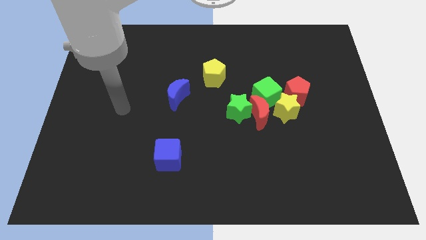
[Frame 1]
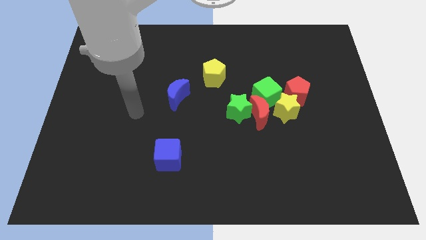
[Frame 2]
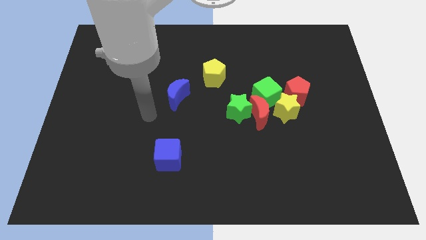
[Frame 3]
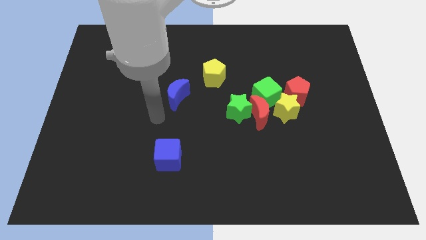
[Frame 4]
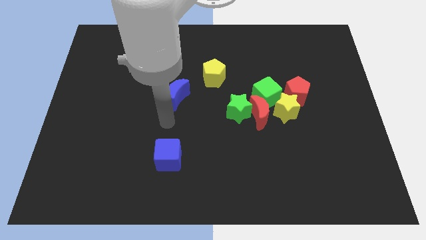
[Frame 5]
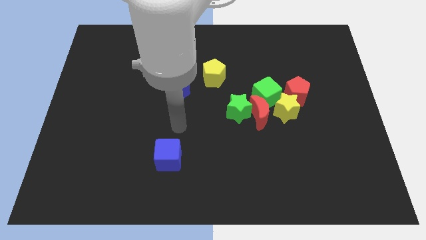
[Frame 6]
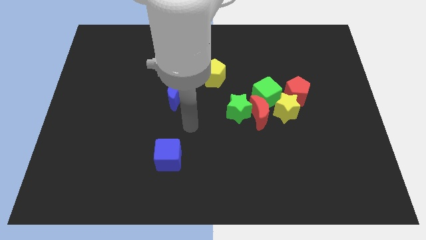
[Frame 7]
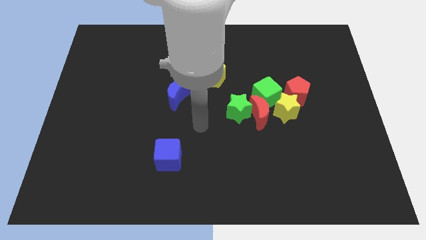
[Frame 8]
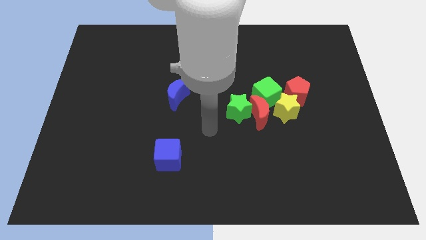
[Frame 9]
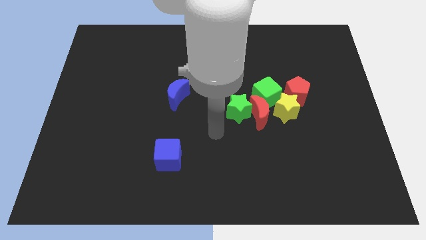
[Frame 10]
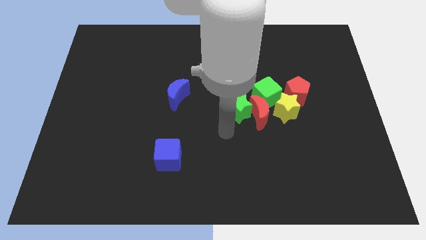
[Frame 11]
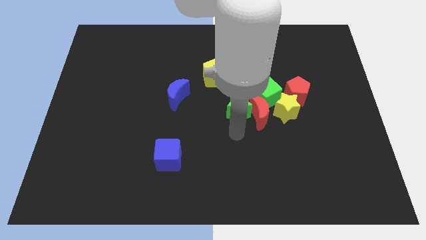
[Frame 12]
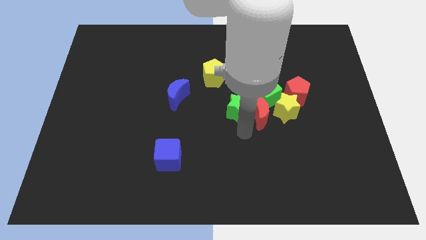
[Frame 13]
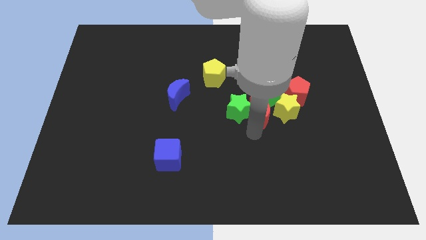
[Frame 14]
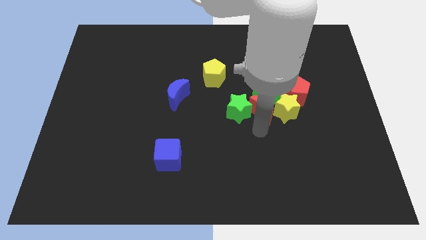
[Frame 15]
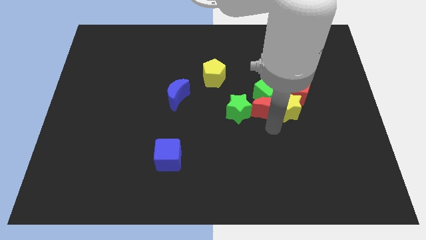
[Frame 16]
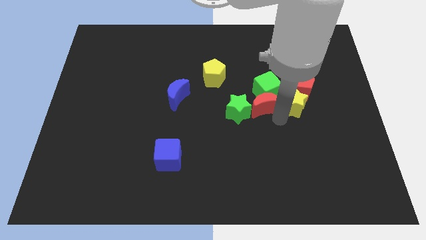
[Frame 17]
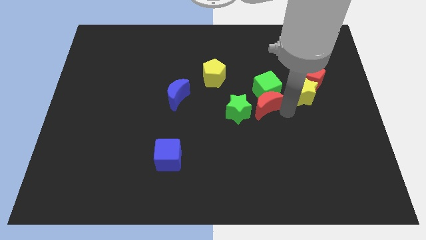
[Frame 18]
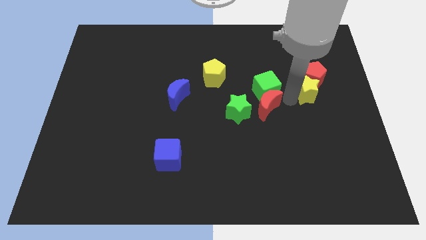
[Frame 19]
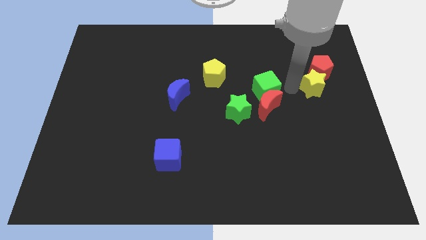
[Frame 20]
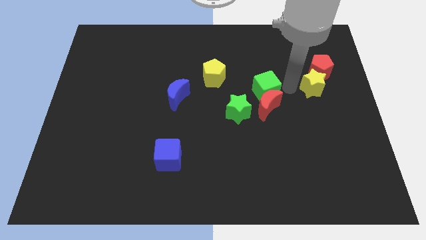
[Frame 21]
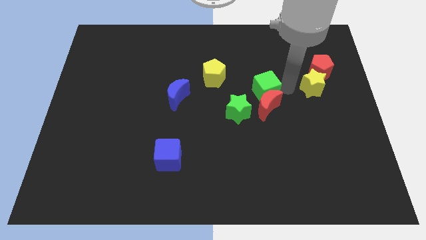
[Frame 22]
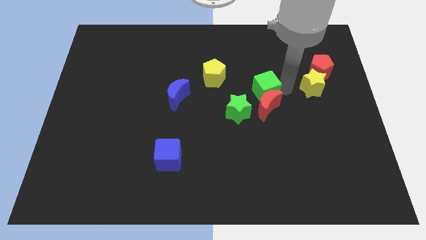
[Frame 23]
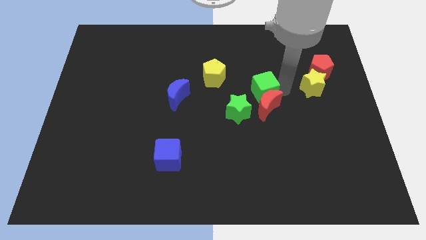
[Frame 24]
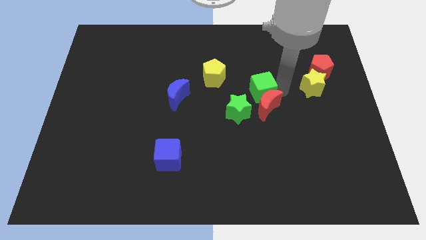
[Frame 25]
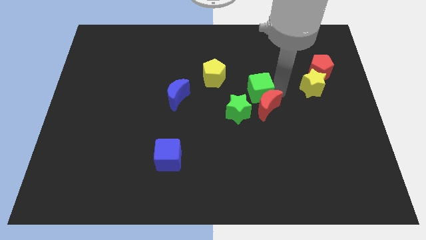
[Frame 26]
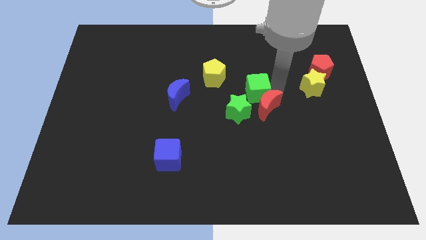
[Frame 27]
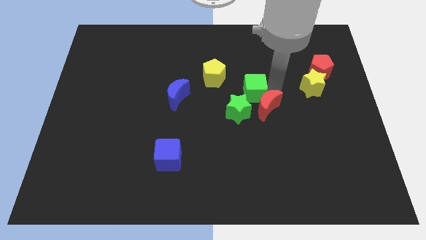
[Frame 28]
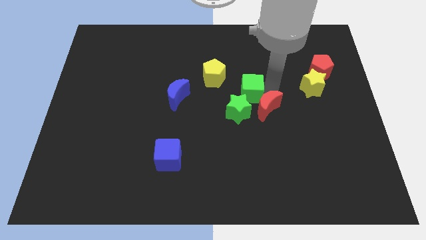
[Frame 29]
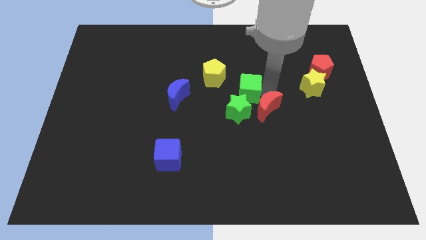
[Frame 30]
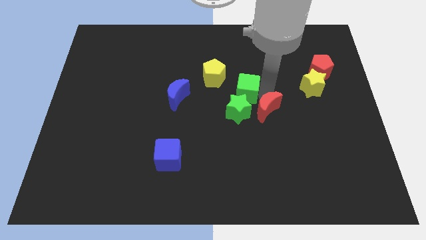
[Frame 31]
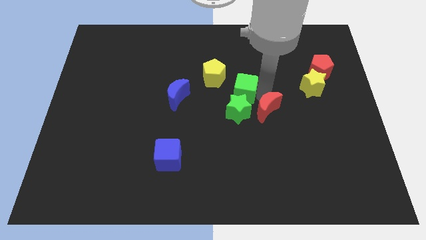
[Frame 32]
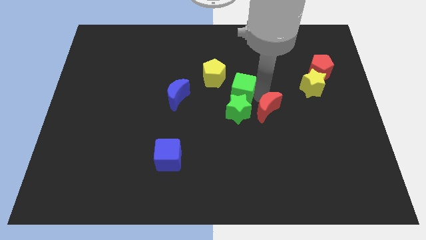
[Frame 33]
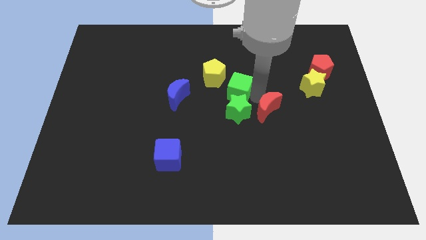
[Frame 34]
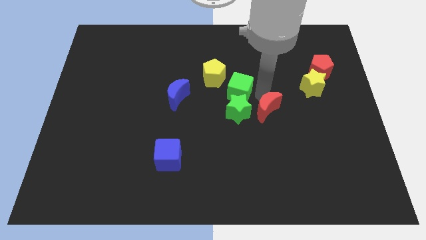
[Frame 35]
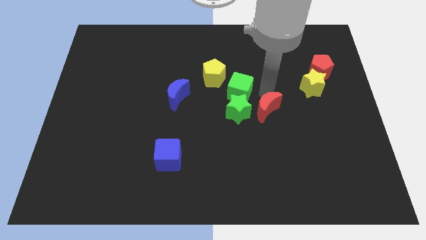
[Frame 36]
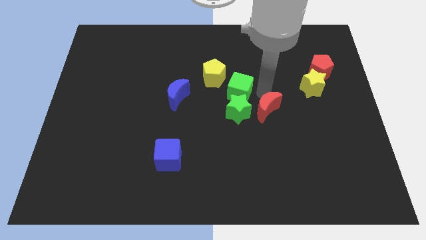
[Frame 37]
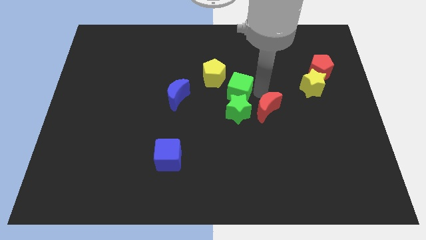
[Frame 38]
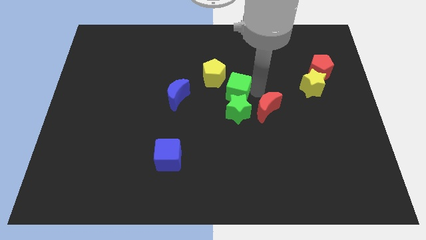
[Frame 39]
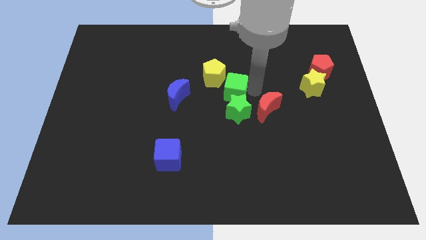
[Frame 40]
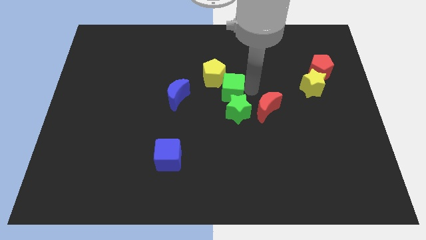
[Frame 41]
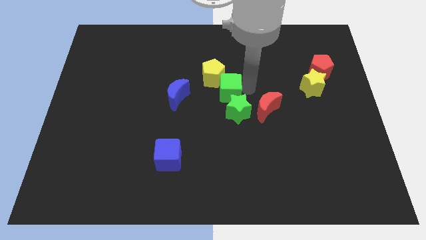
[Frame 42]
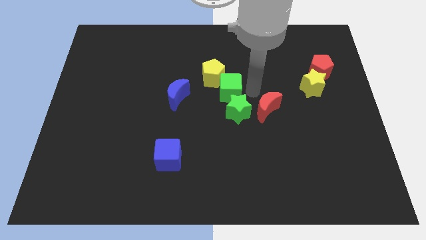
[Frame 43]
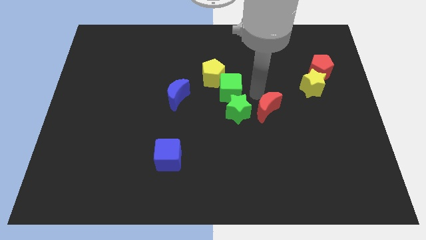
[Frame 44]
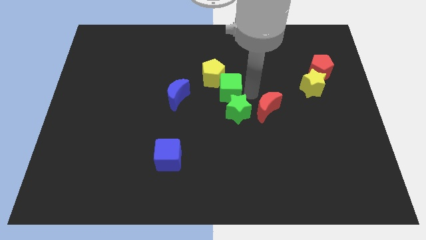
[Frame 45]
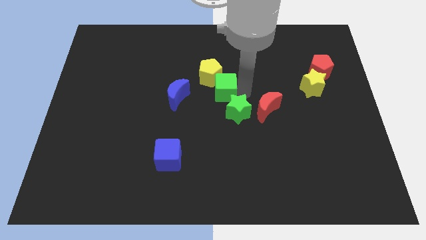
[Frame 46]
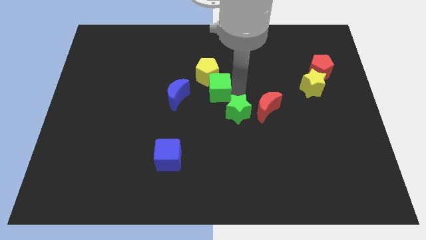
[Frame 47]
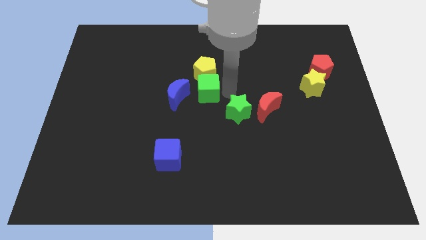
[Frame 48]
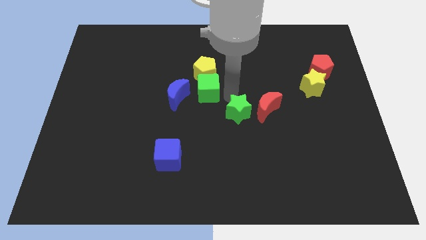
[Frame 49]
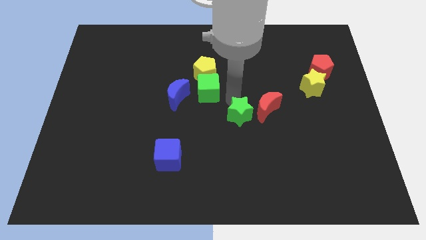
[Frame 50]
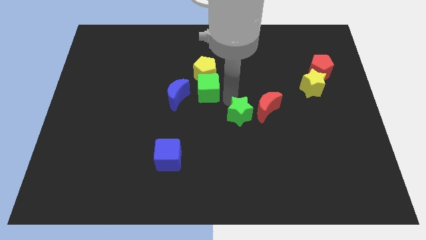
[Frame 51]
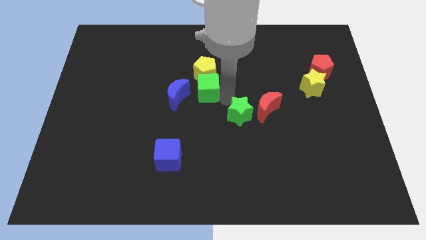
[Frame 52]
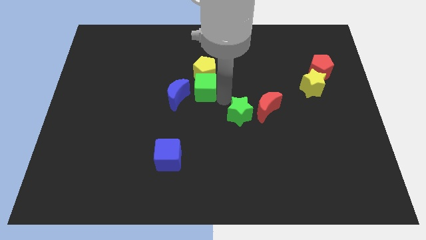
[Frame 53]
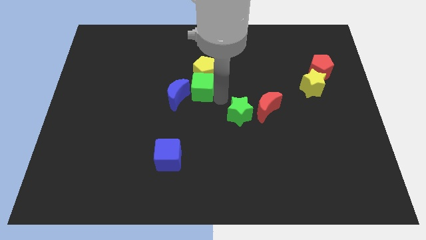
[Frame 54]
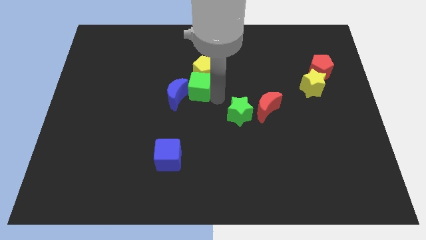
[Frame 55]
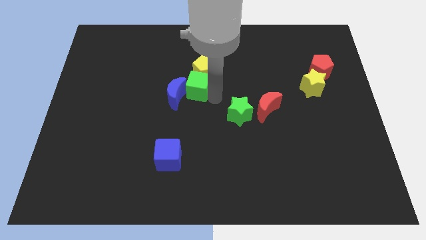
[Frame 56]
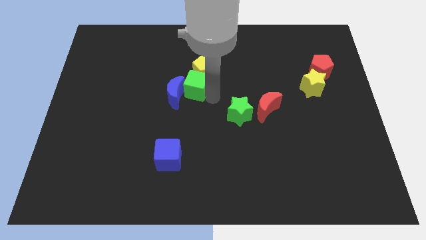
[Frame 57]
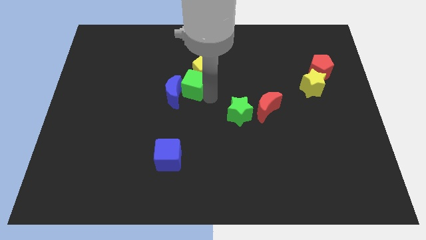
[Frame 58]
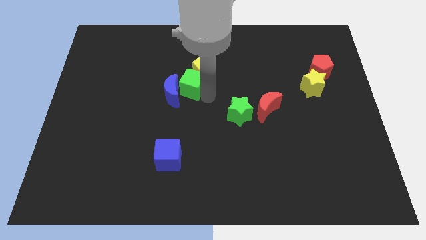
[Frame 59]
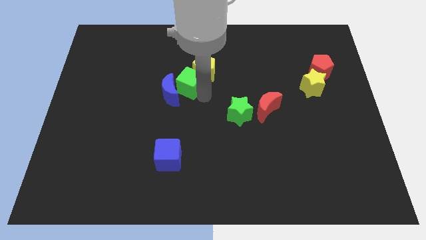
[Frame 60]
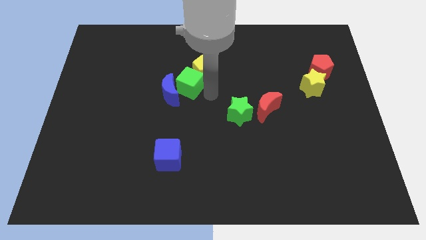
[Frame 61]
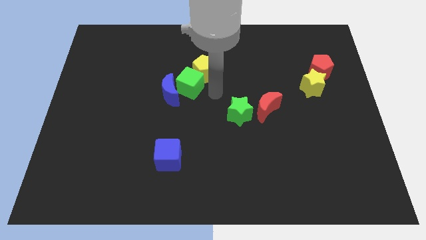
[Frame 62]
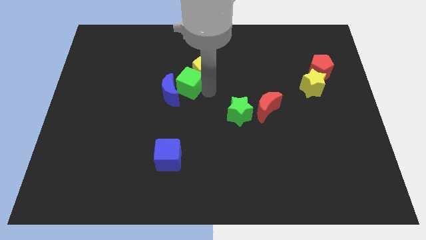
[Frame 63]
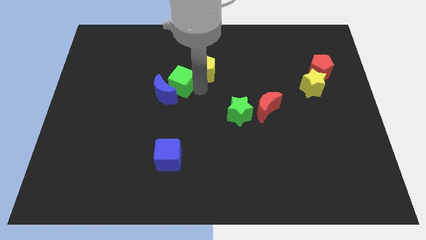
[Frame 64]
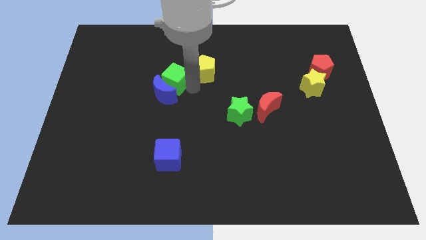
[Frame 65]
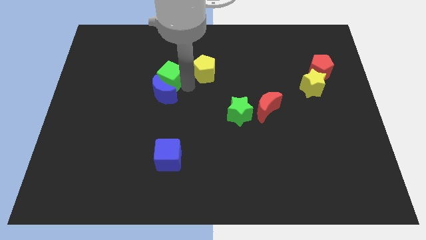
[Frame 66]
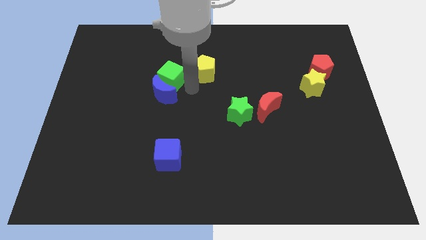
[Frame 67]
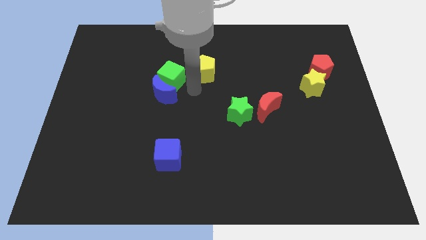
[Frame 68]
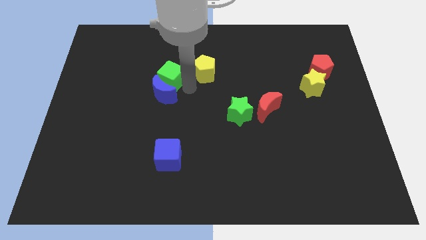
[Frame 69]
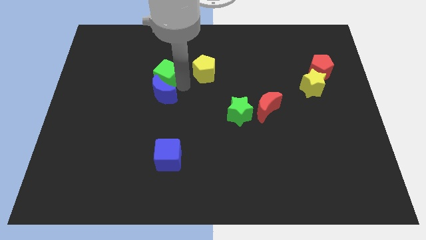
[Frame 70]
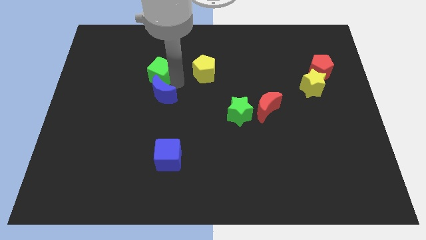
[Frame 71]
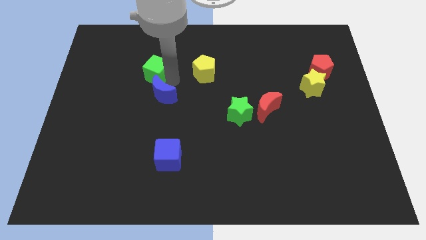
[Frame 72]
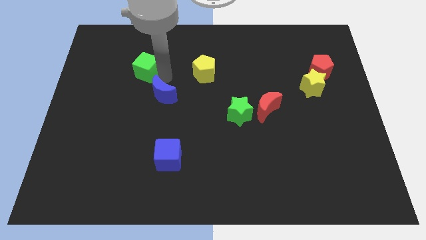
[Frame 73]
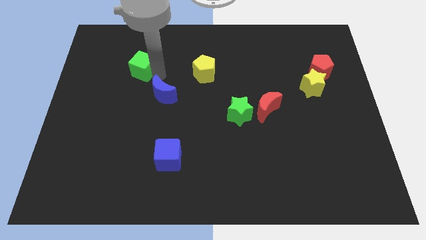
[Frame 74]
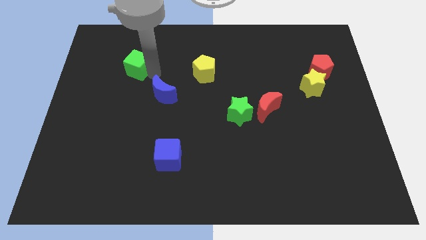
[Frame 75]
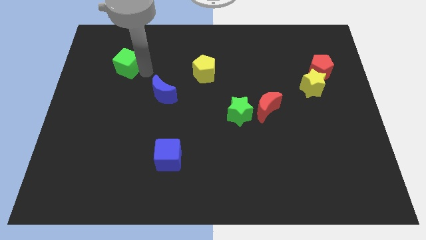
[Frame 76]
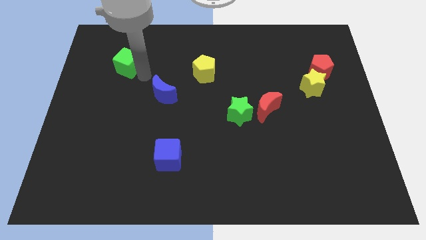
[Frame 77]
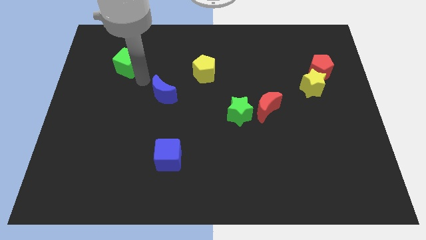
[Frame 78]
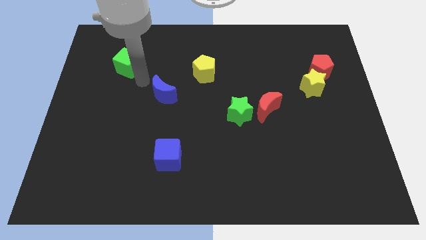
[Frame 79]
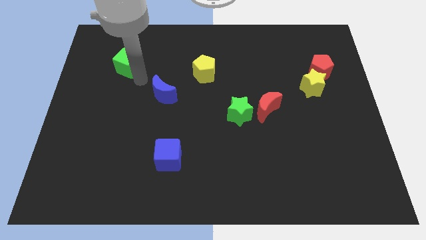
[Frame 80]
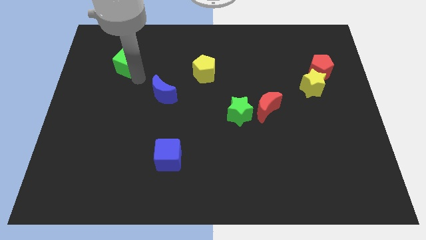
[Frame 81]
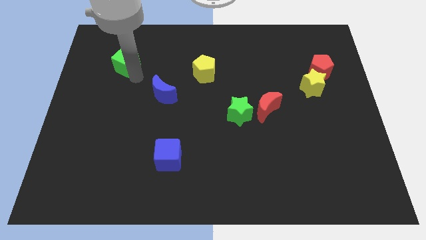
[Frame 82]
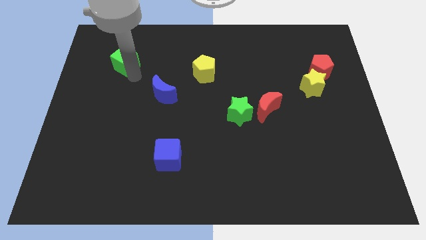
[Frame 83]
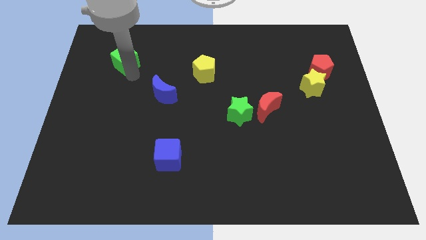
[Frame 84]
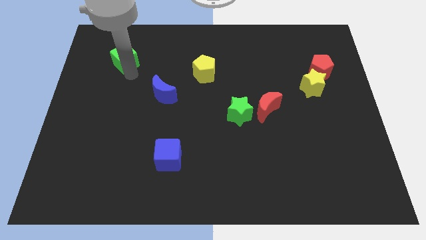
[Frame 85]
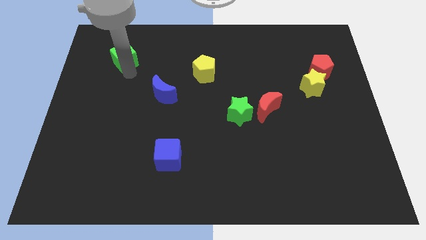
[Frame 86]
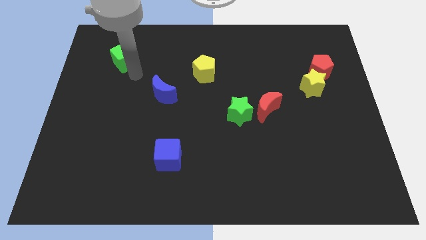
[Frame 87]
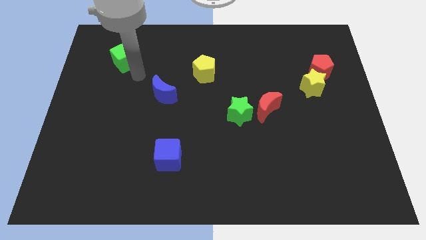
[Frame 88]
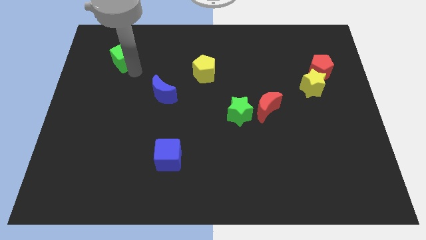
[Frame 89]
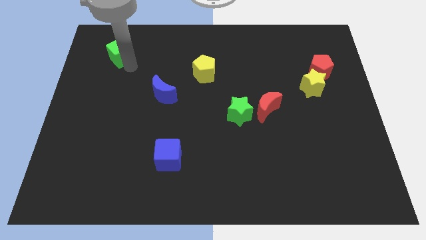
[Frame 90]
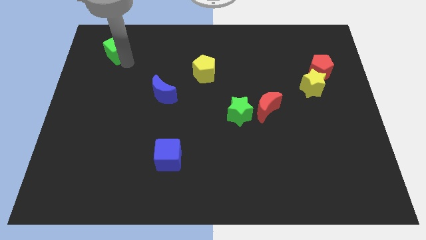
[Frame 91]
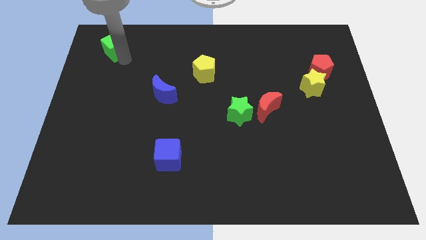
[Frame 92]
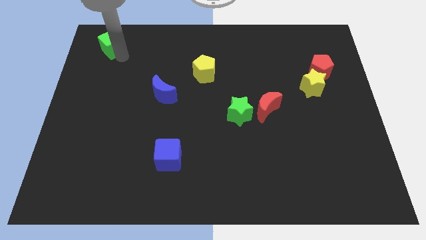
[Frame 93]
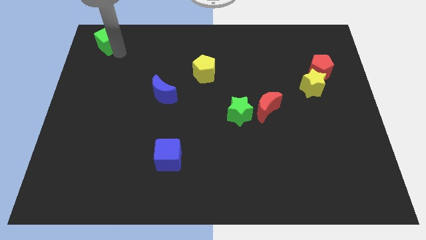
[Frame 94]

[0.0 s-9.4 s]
put the green cube to the top left of the board
